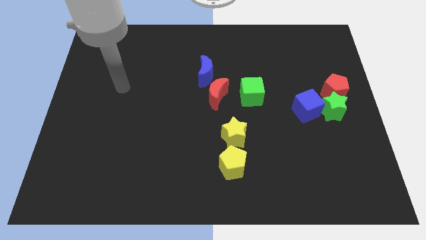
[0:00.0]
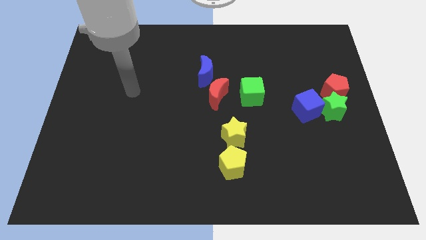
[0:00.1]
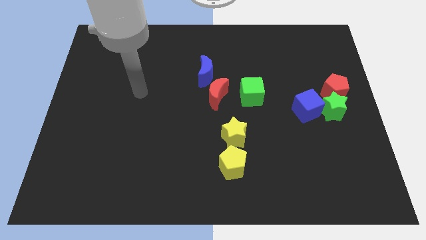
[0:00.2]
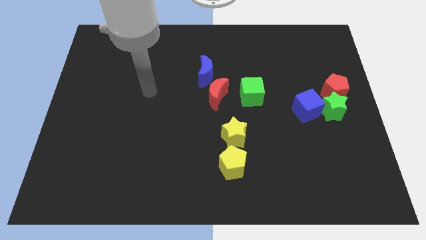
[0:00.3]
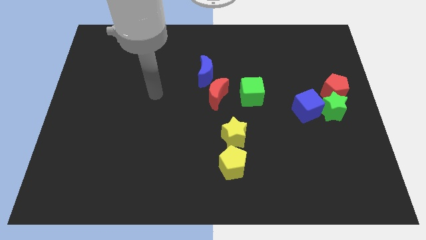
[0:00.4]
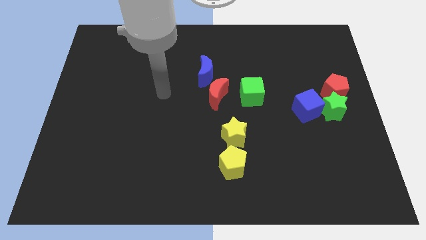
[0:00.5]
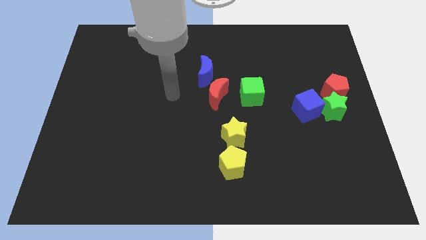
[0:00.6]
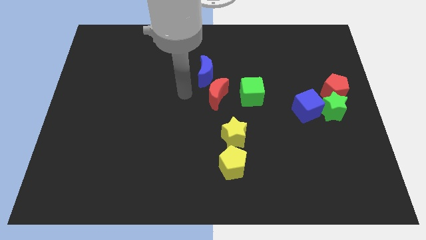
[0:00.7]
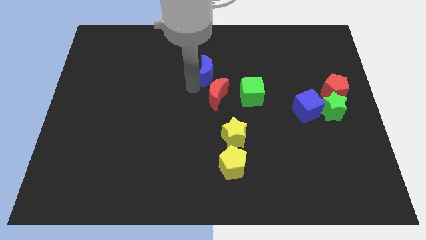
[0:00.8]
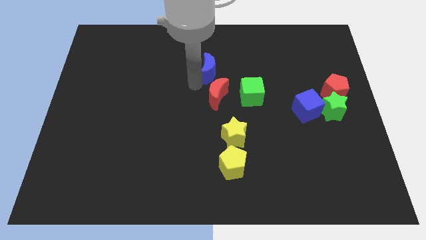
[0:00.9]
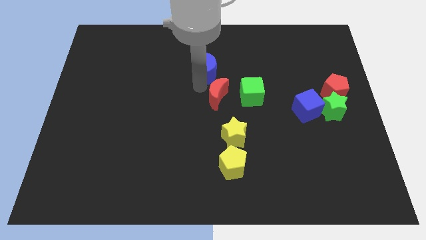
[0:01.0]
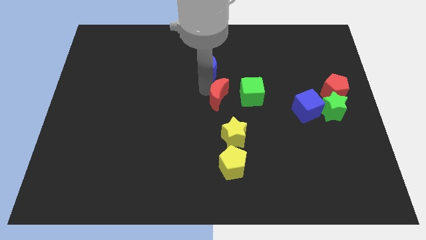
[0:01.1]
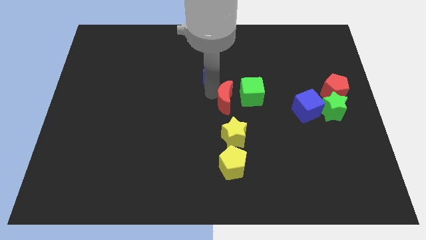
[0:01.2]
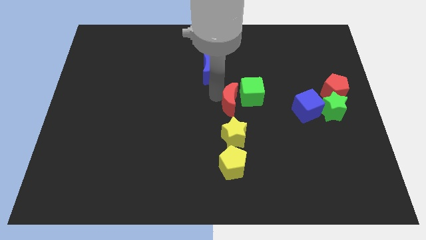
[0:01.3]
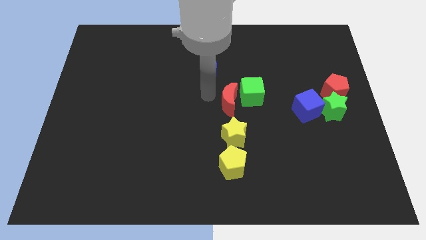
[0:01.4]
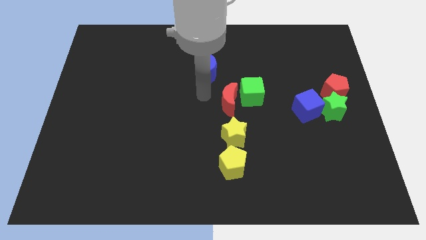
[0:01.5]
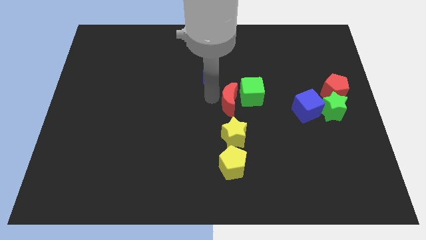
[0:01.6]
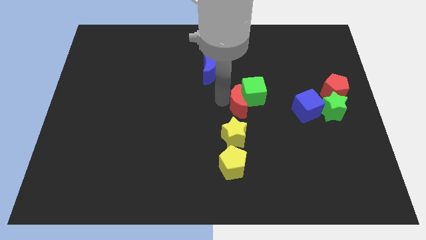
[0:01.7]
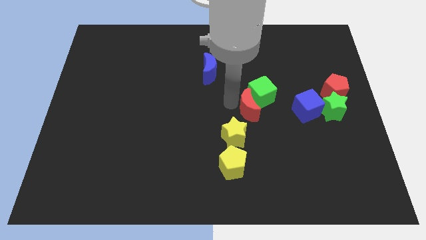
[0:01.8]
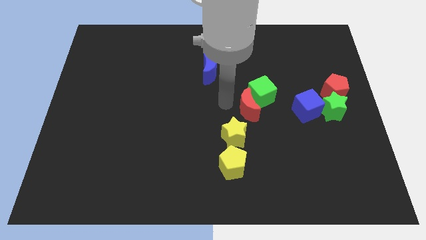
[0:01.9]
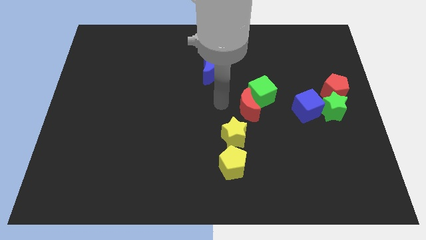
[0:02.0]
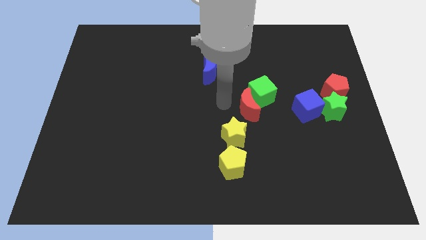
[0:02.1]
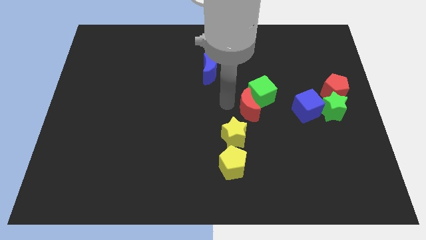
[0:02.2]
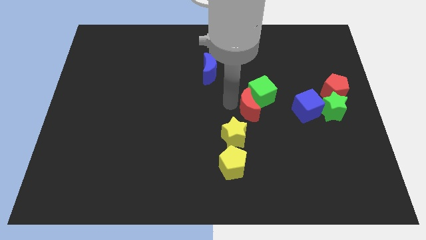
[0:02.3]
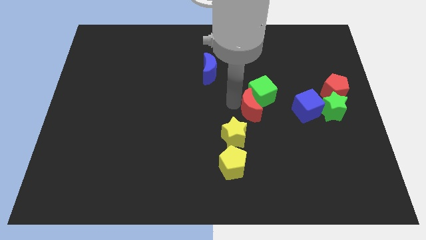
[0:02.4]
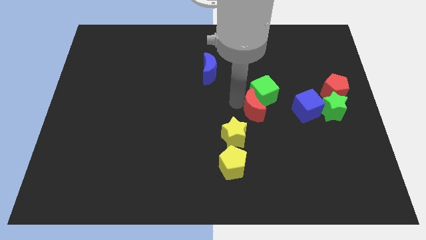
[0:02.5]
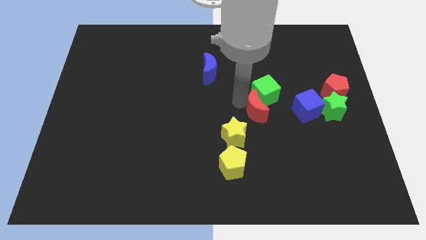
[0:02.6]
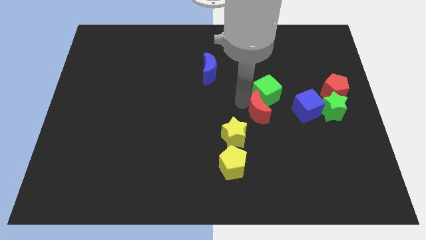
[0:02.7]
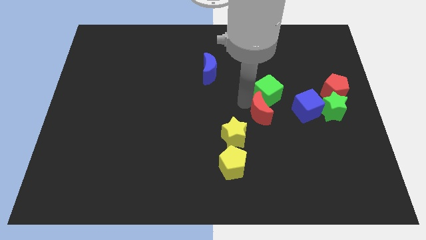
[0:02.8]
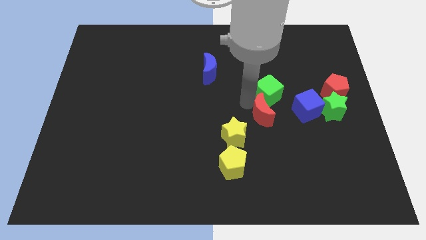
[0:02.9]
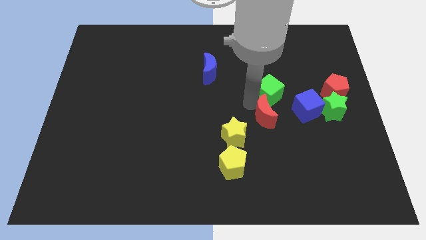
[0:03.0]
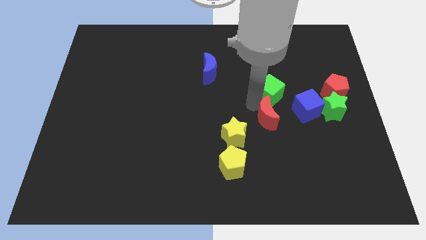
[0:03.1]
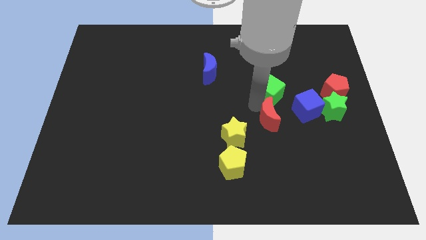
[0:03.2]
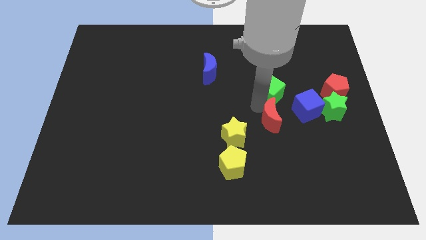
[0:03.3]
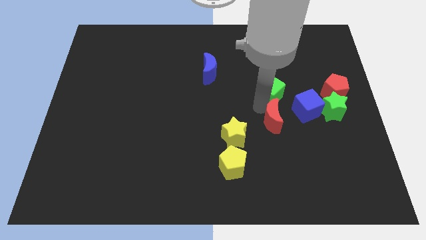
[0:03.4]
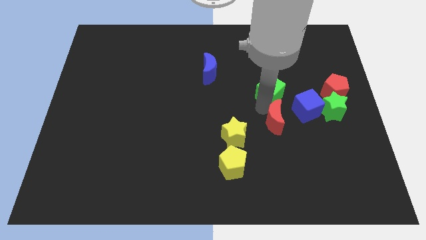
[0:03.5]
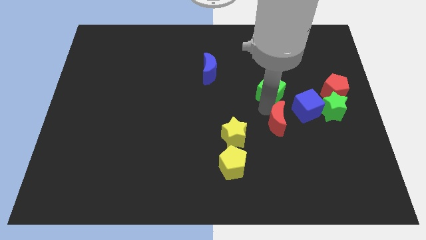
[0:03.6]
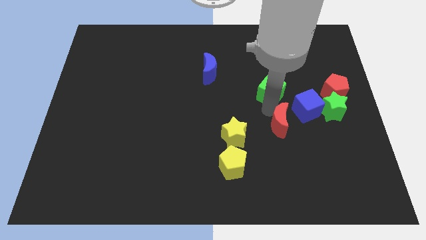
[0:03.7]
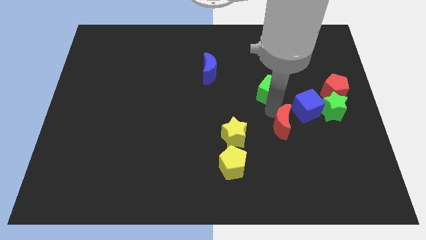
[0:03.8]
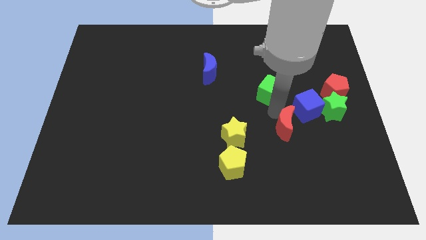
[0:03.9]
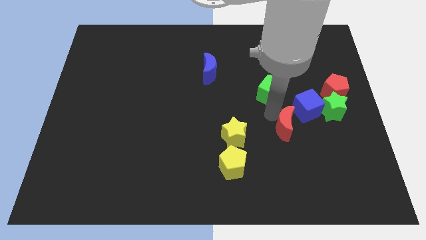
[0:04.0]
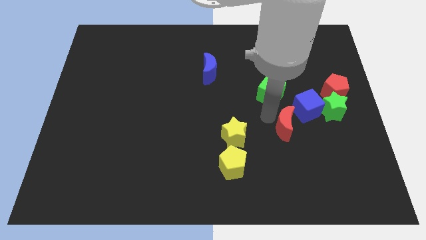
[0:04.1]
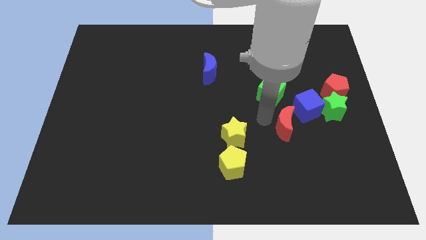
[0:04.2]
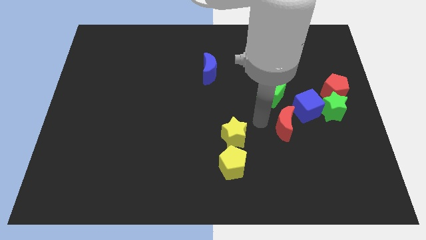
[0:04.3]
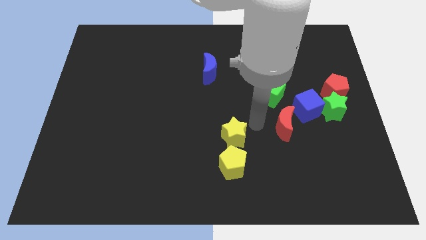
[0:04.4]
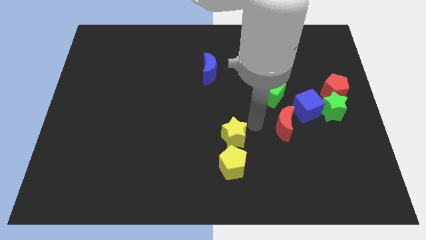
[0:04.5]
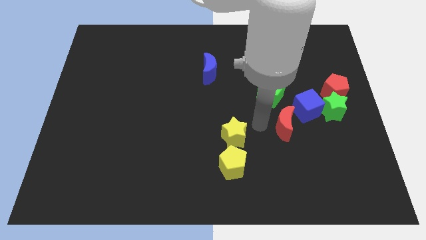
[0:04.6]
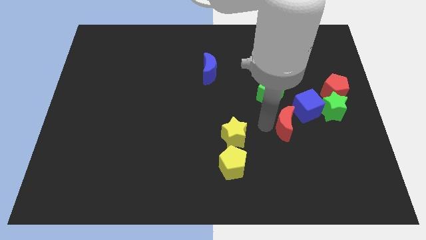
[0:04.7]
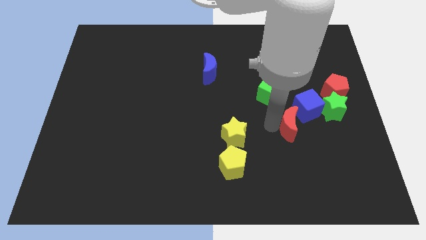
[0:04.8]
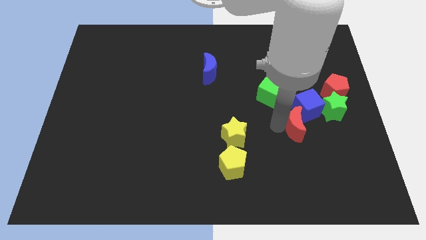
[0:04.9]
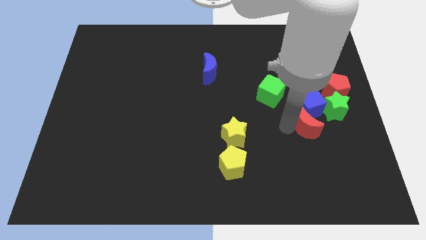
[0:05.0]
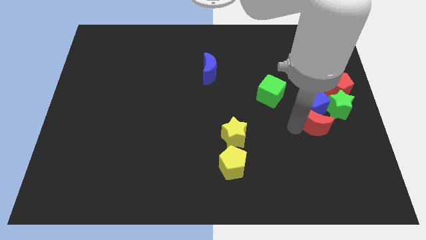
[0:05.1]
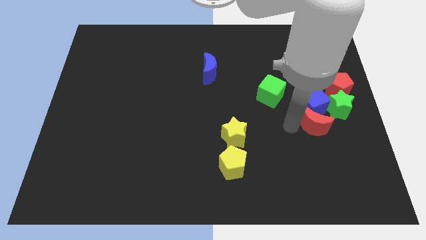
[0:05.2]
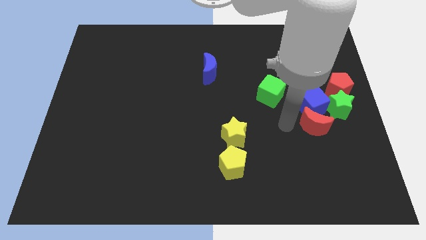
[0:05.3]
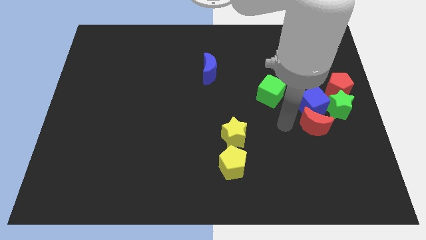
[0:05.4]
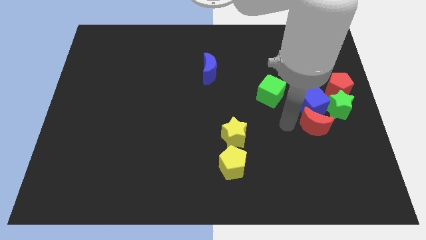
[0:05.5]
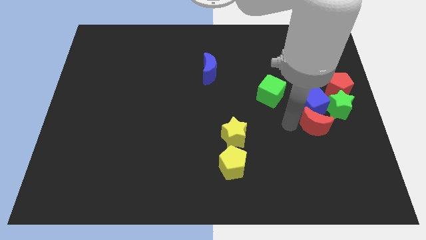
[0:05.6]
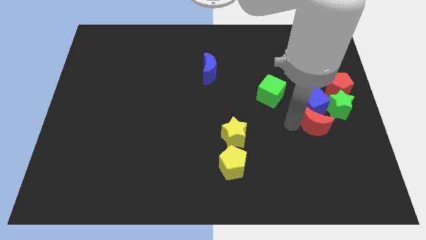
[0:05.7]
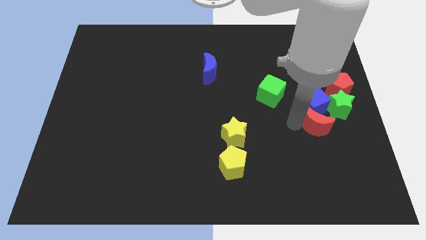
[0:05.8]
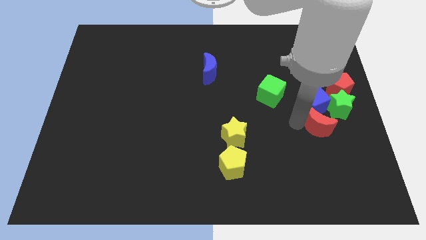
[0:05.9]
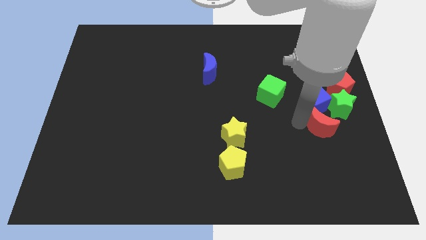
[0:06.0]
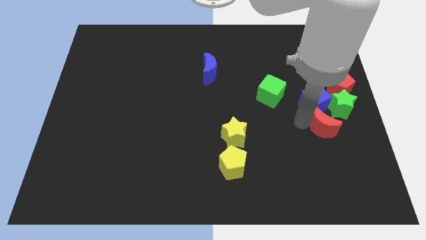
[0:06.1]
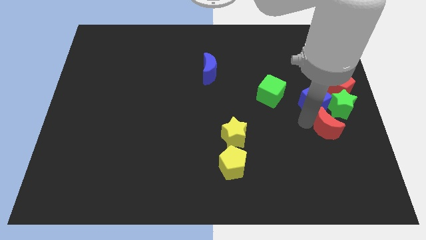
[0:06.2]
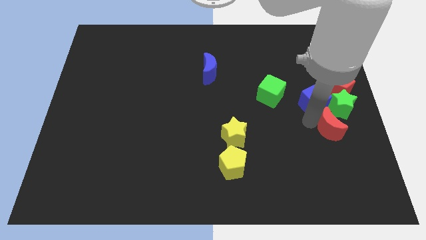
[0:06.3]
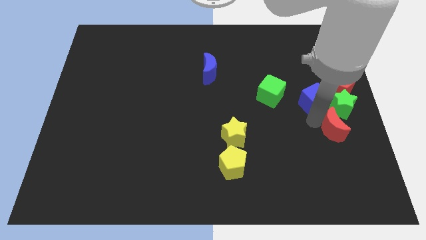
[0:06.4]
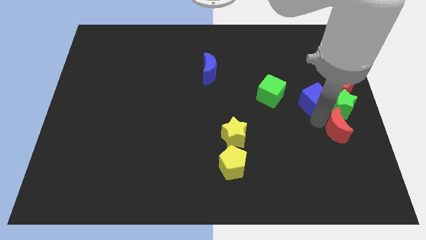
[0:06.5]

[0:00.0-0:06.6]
put the red moon to the right side
